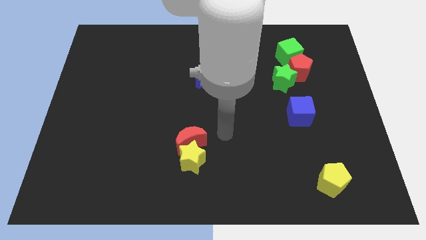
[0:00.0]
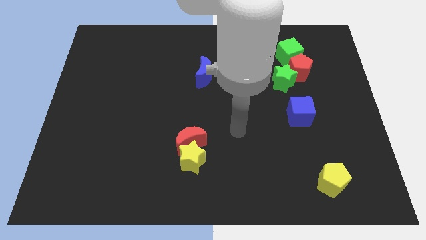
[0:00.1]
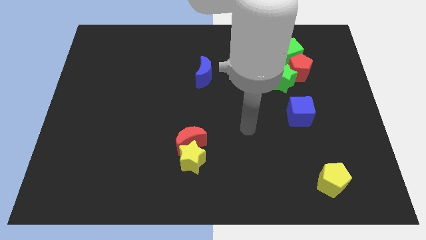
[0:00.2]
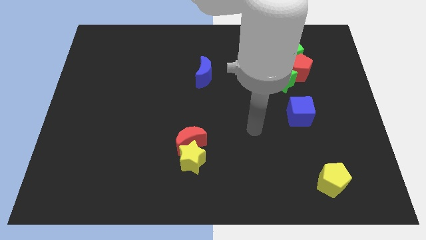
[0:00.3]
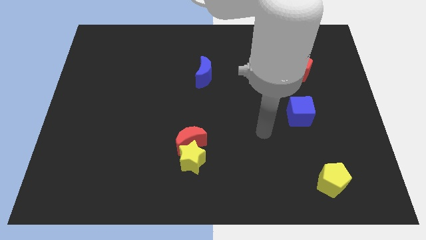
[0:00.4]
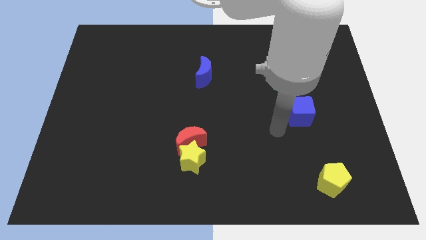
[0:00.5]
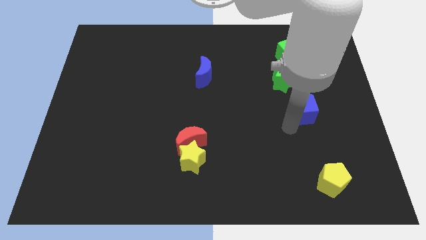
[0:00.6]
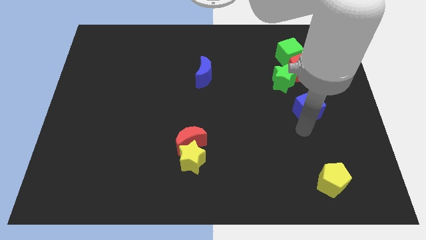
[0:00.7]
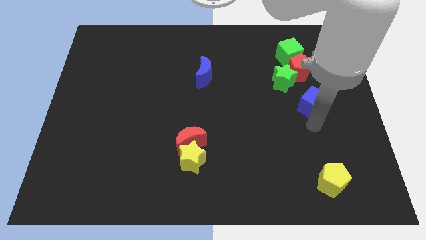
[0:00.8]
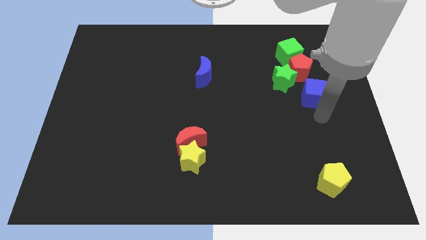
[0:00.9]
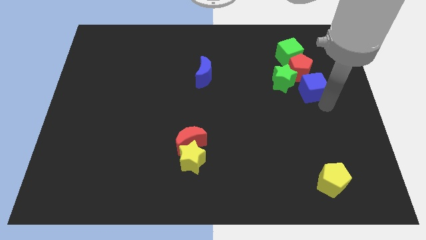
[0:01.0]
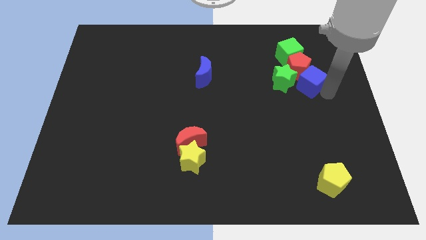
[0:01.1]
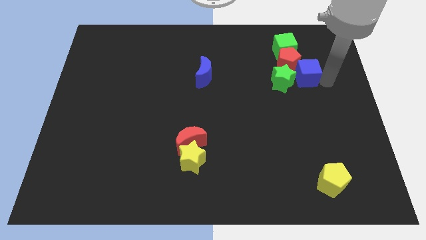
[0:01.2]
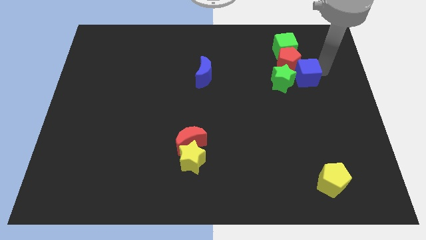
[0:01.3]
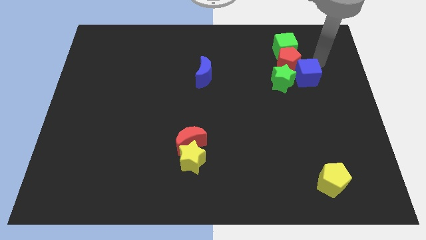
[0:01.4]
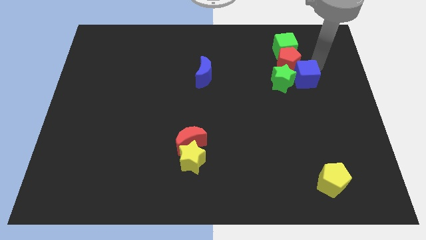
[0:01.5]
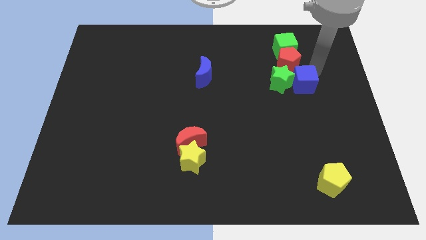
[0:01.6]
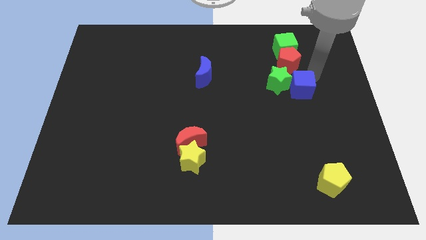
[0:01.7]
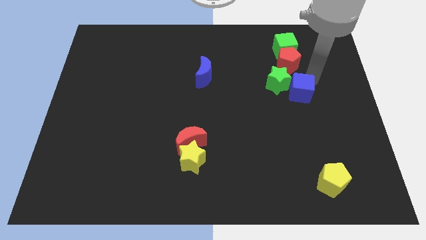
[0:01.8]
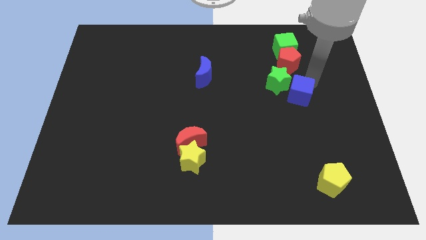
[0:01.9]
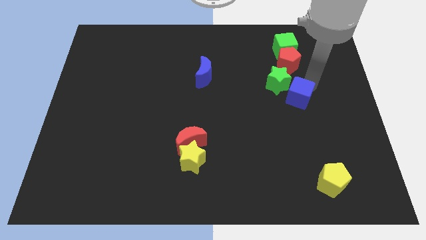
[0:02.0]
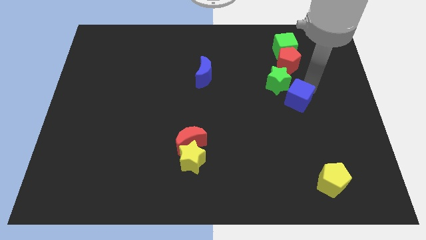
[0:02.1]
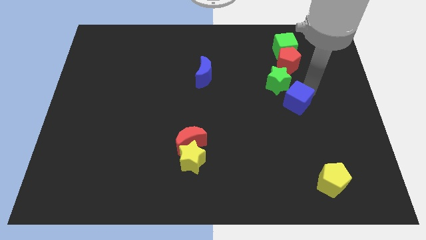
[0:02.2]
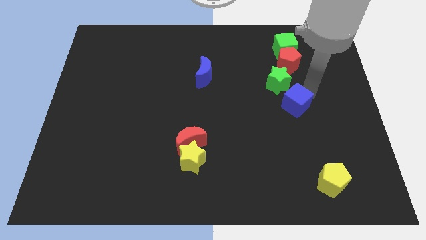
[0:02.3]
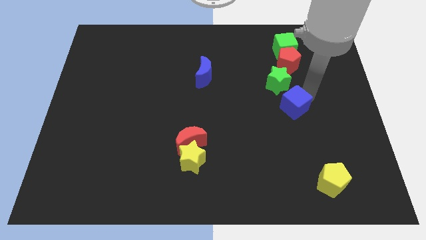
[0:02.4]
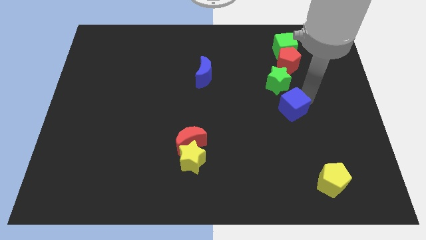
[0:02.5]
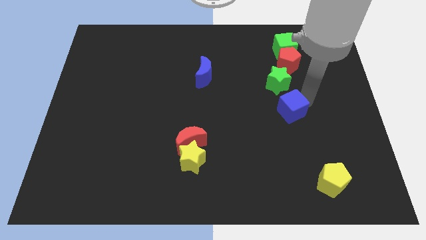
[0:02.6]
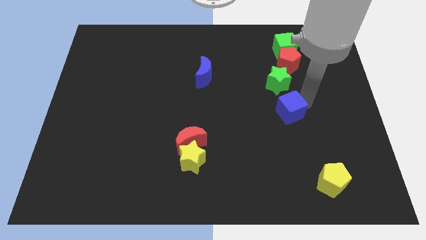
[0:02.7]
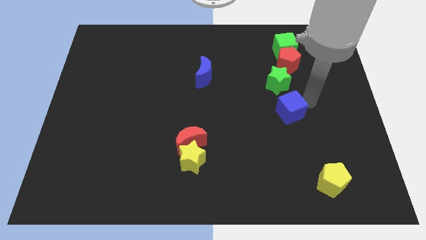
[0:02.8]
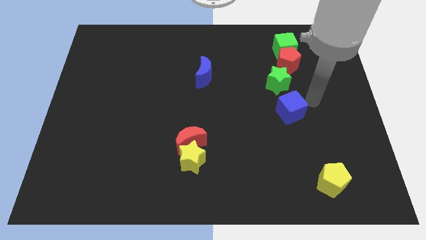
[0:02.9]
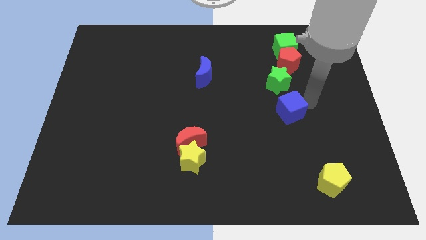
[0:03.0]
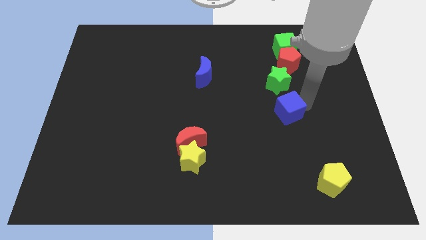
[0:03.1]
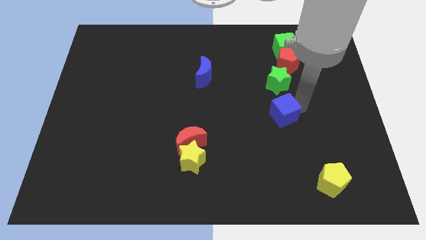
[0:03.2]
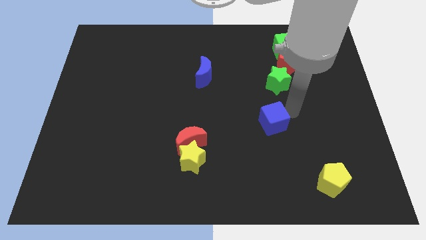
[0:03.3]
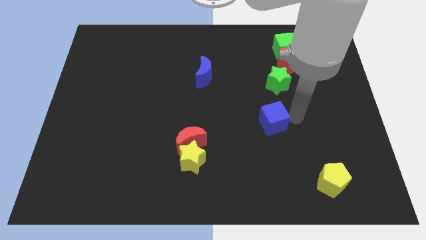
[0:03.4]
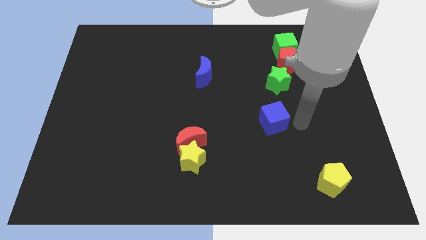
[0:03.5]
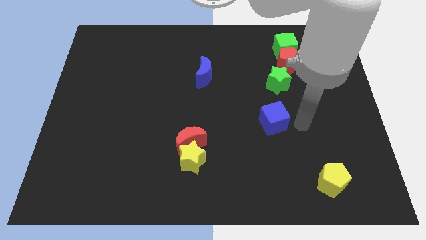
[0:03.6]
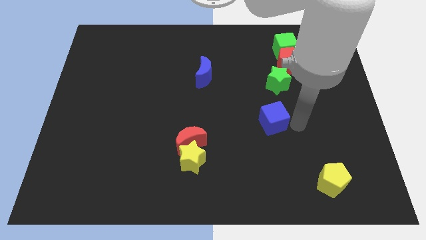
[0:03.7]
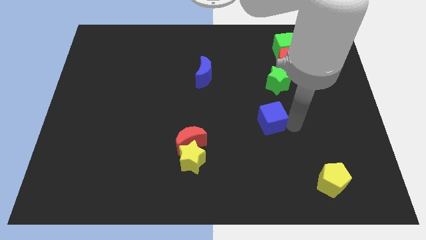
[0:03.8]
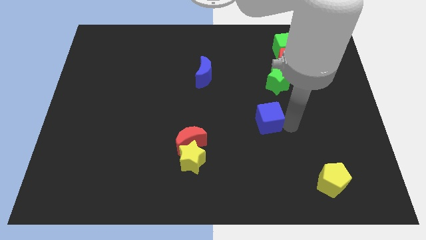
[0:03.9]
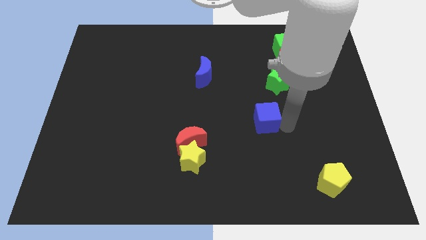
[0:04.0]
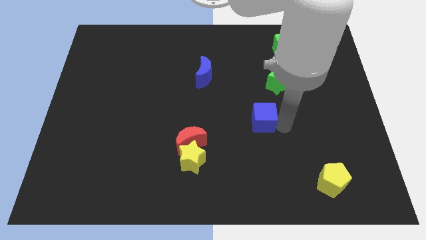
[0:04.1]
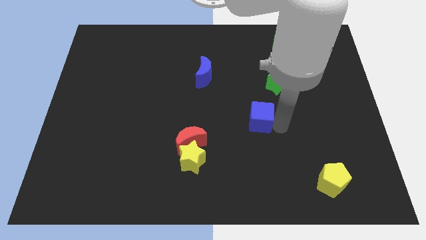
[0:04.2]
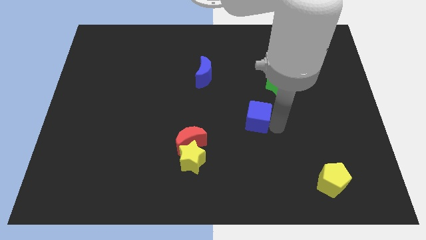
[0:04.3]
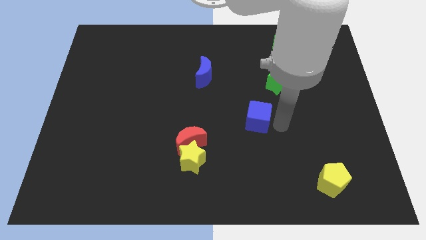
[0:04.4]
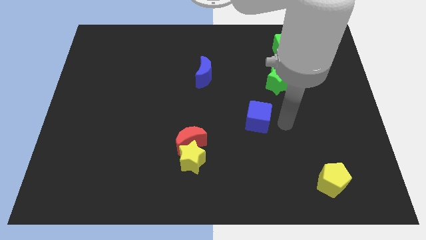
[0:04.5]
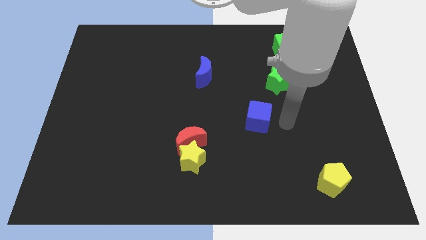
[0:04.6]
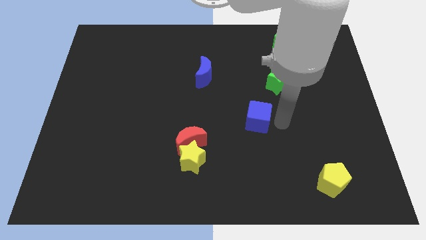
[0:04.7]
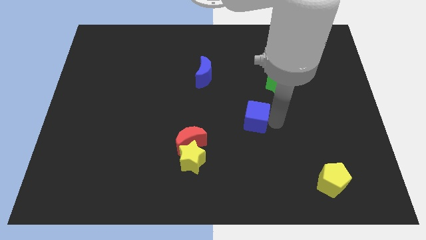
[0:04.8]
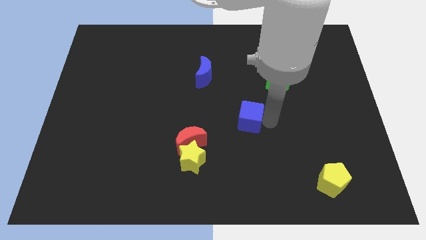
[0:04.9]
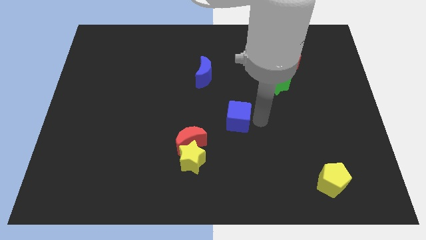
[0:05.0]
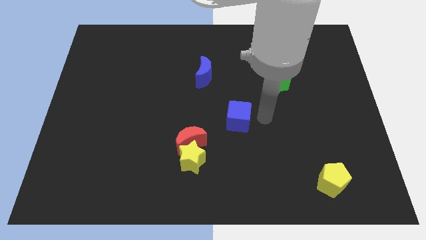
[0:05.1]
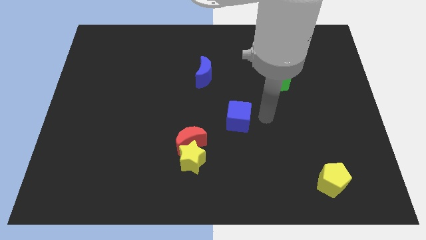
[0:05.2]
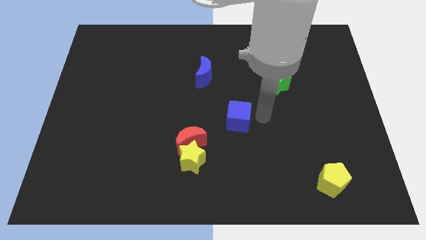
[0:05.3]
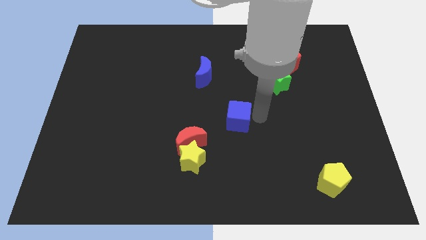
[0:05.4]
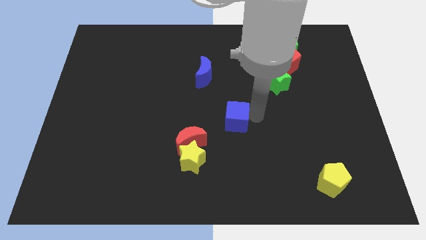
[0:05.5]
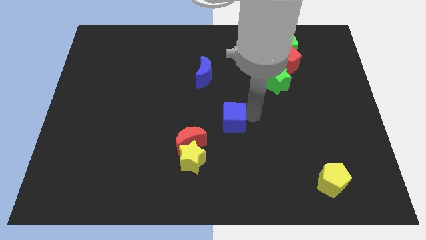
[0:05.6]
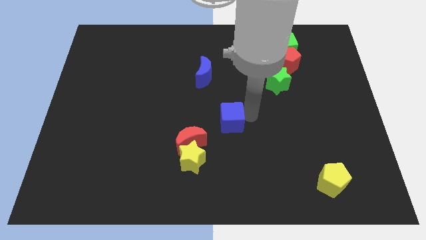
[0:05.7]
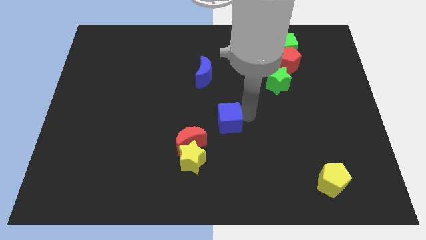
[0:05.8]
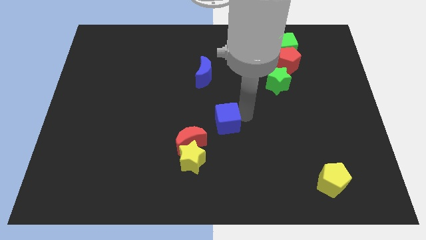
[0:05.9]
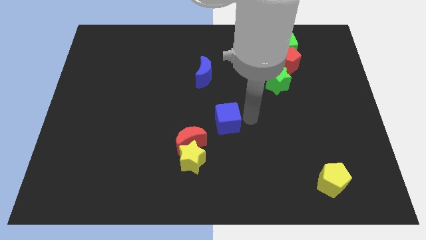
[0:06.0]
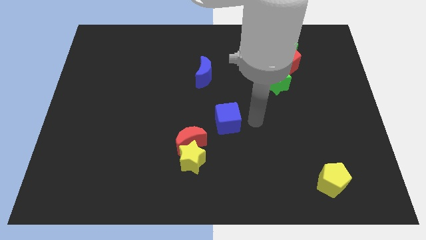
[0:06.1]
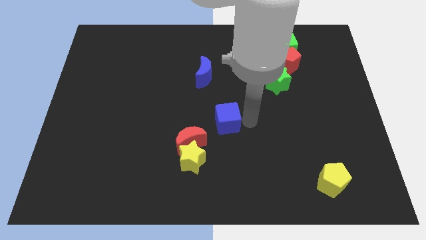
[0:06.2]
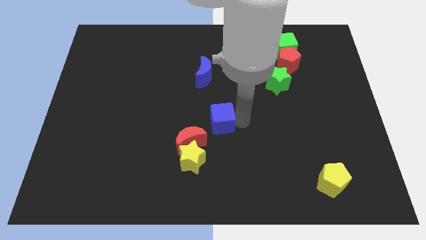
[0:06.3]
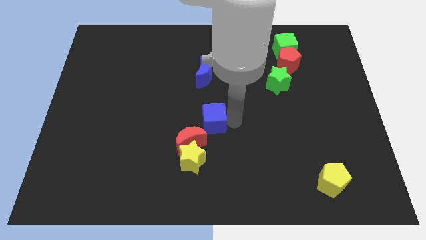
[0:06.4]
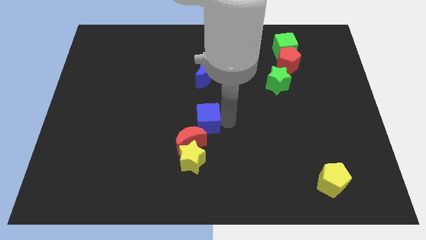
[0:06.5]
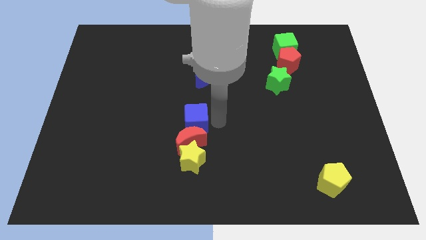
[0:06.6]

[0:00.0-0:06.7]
push the blue cube to the top left side of the red moon
